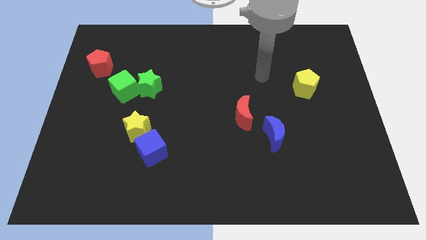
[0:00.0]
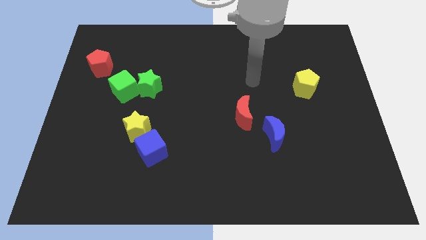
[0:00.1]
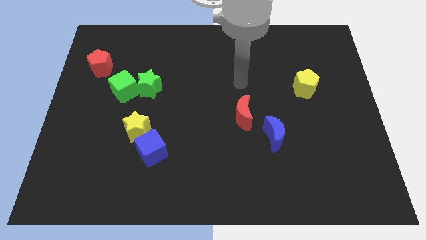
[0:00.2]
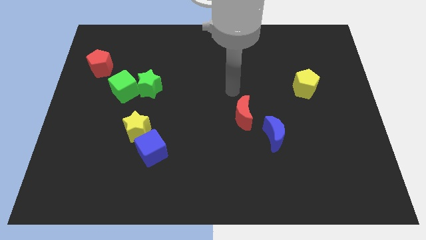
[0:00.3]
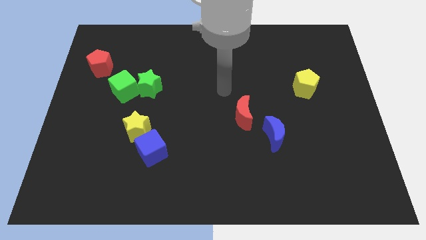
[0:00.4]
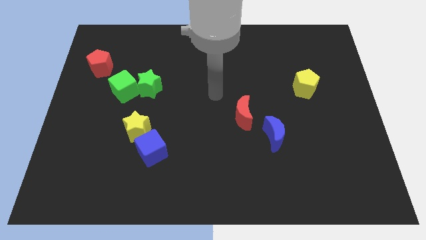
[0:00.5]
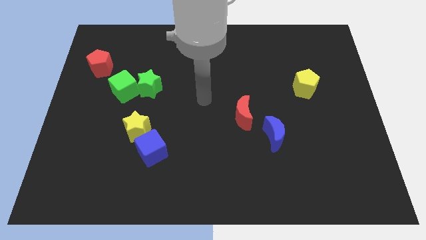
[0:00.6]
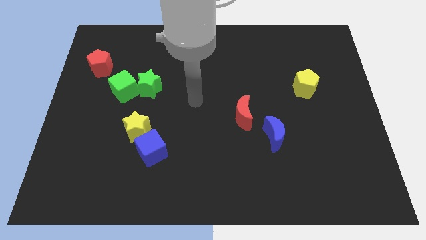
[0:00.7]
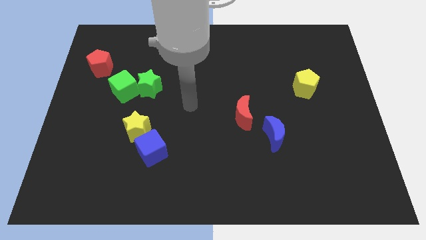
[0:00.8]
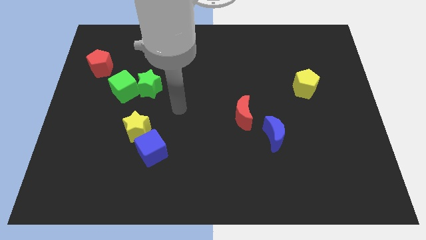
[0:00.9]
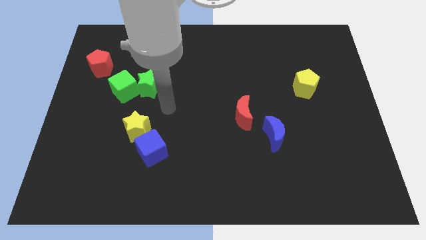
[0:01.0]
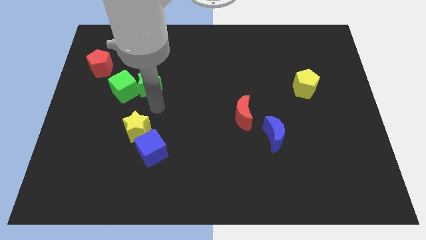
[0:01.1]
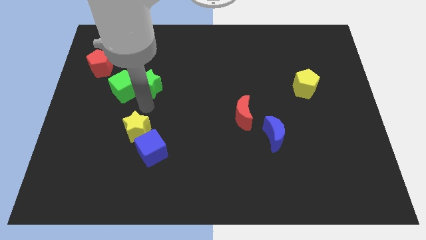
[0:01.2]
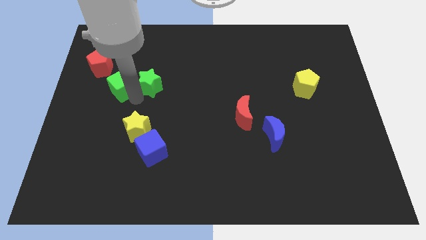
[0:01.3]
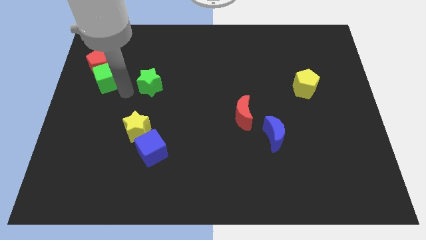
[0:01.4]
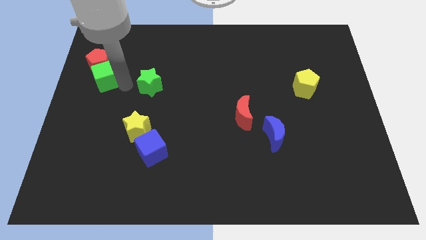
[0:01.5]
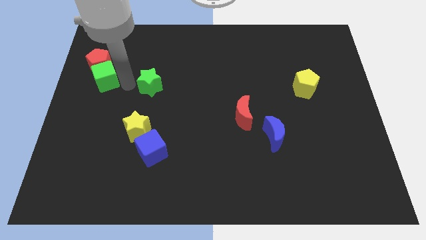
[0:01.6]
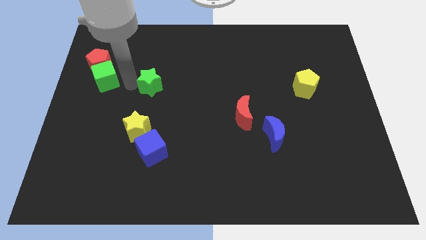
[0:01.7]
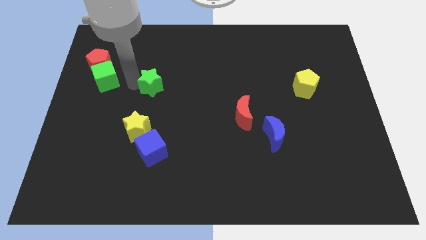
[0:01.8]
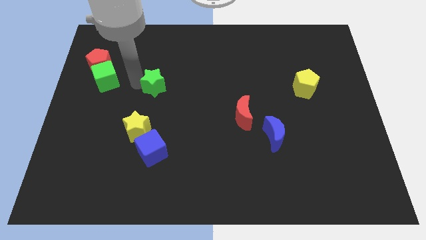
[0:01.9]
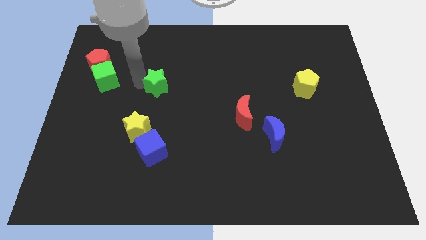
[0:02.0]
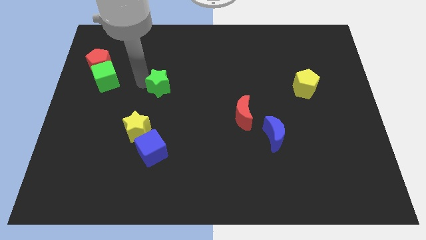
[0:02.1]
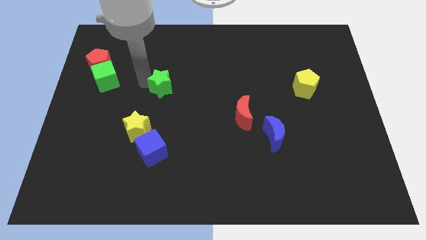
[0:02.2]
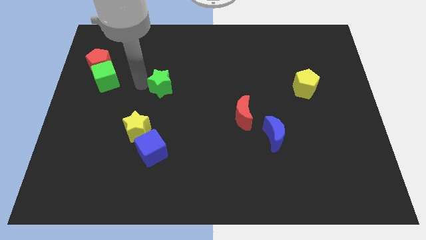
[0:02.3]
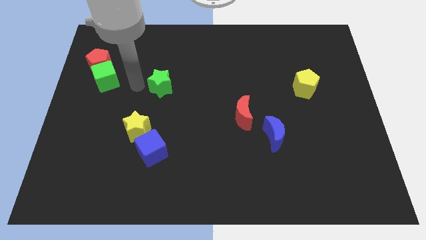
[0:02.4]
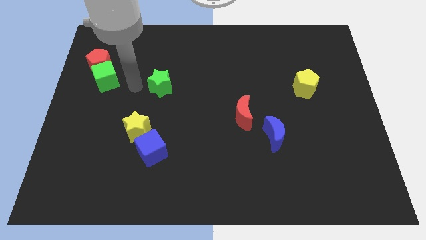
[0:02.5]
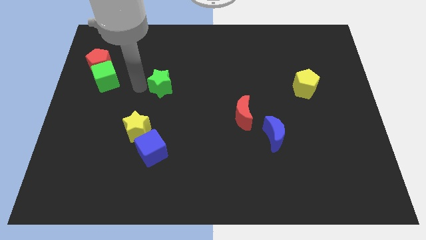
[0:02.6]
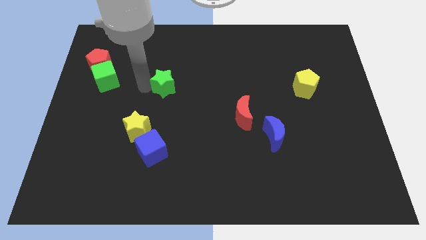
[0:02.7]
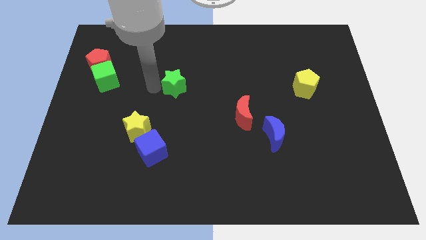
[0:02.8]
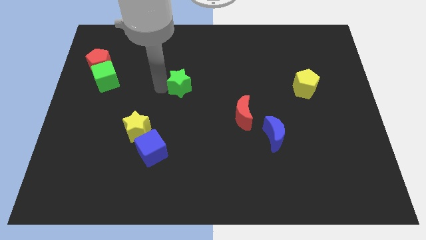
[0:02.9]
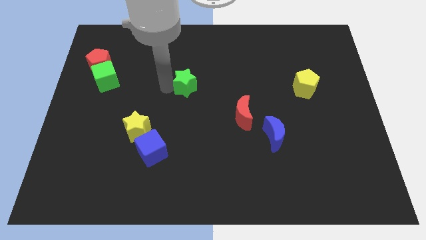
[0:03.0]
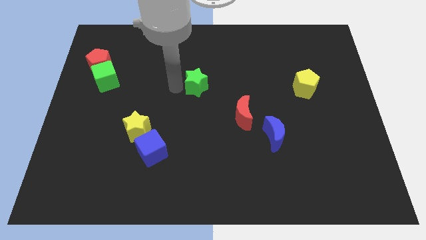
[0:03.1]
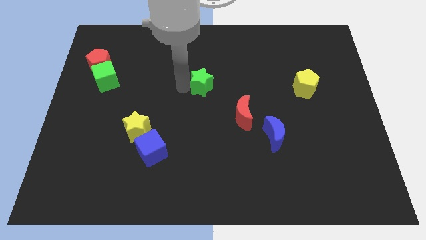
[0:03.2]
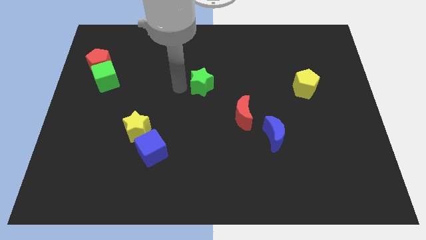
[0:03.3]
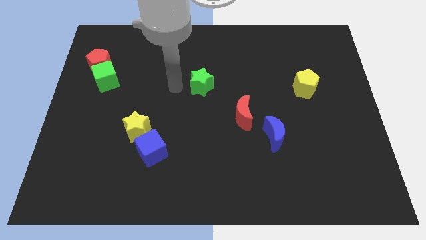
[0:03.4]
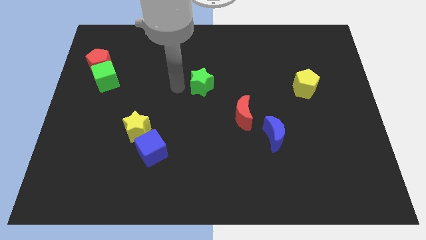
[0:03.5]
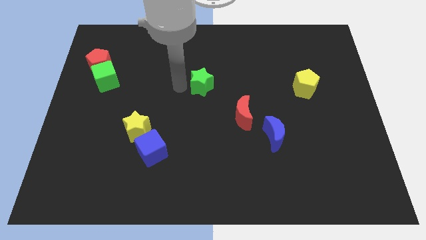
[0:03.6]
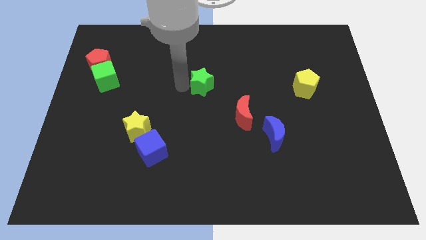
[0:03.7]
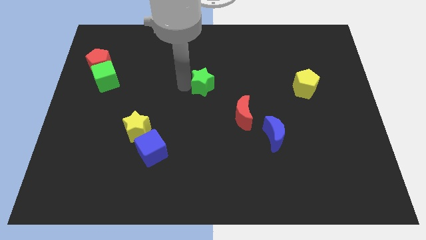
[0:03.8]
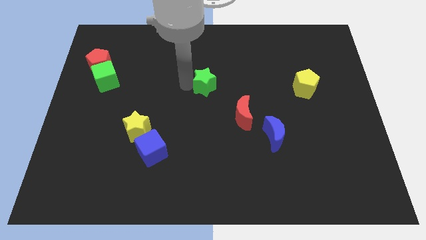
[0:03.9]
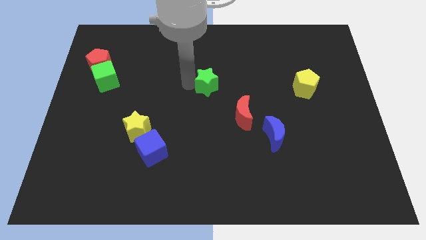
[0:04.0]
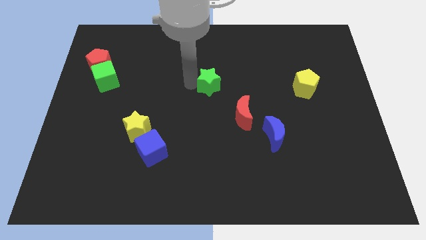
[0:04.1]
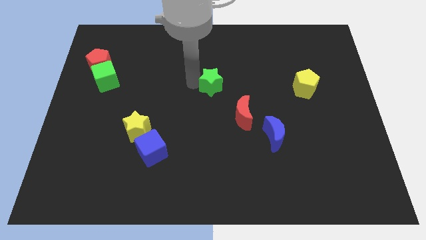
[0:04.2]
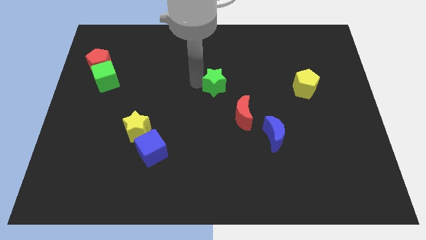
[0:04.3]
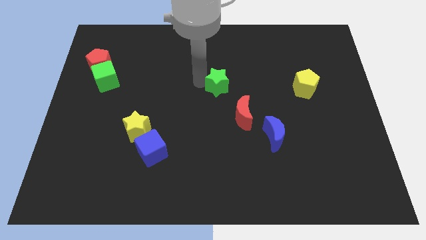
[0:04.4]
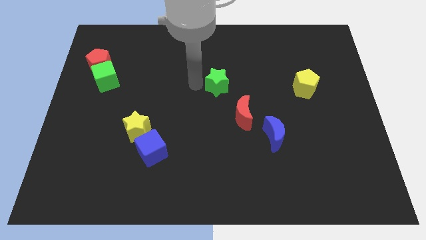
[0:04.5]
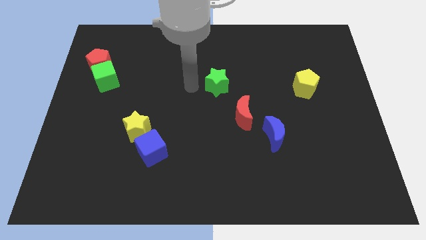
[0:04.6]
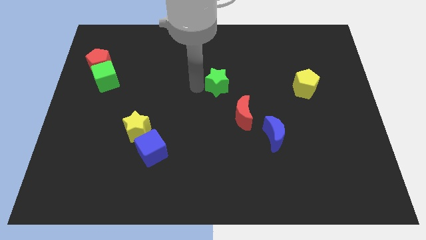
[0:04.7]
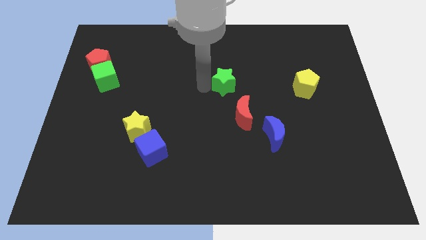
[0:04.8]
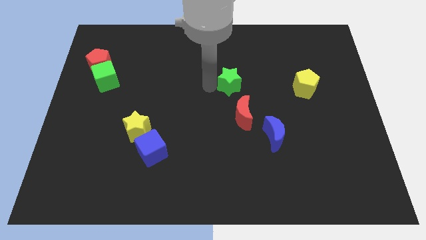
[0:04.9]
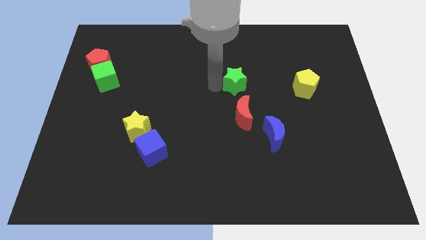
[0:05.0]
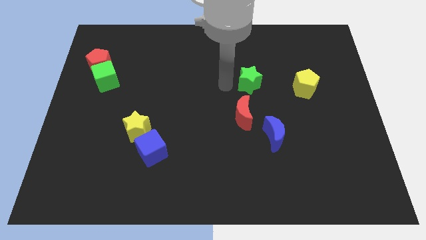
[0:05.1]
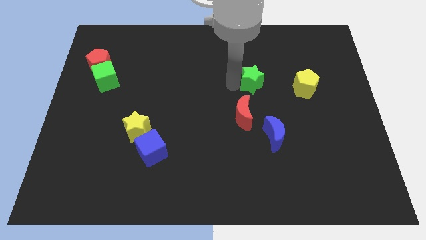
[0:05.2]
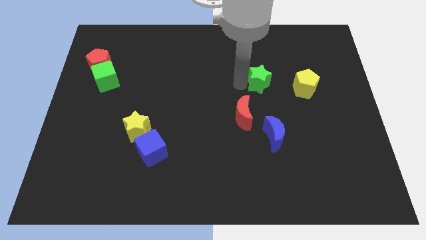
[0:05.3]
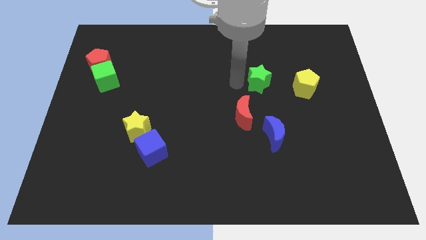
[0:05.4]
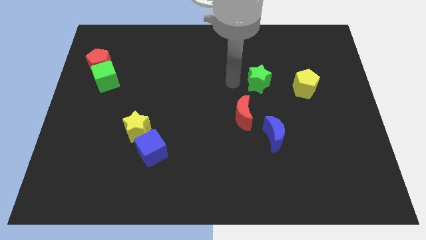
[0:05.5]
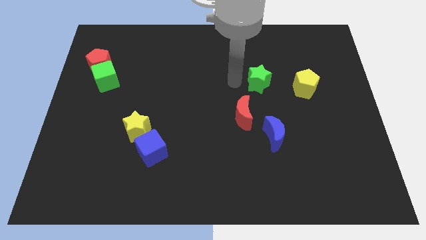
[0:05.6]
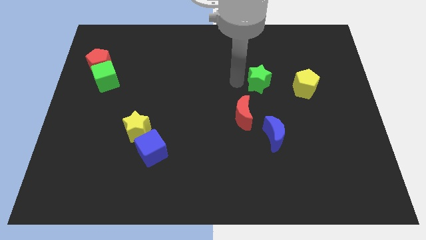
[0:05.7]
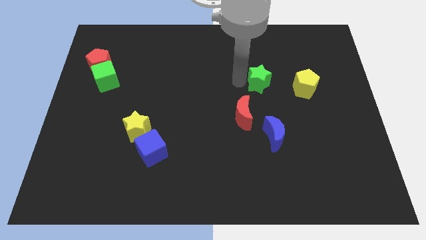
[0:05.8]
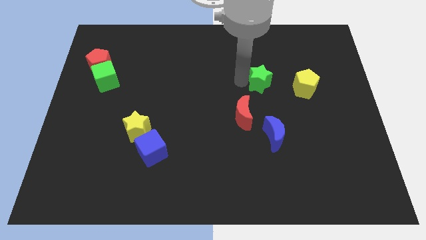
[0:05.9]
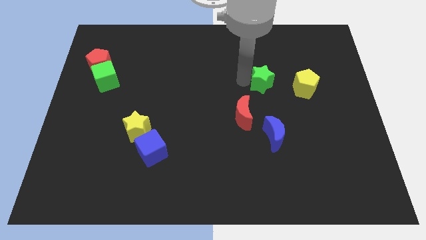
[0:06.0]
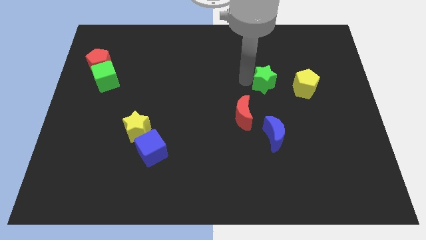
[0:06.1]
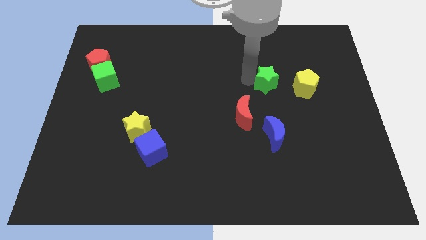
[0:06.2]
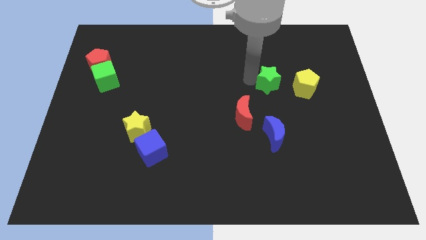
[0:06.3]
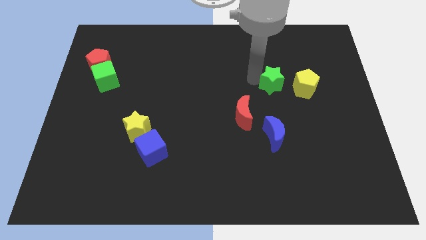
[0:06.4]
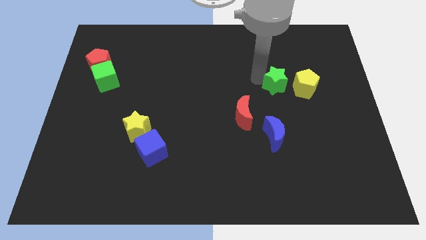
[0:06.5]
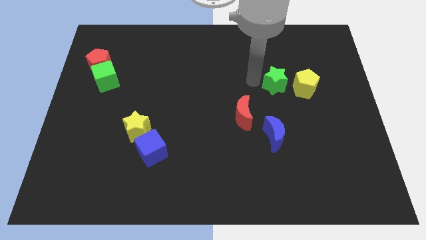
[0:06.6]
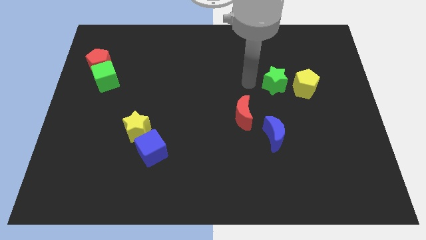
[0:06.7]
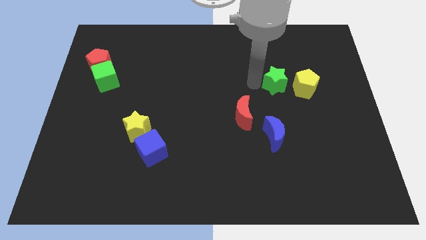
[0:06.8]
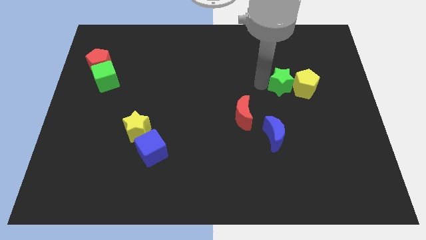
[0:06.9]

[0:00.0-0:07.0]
push the green star next to the yellow pentagon
